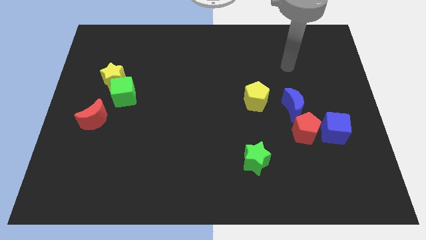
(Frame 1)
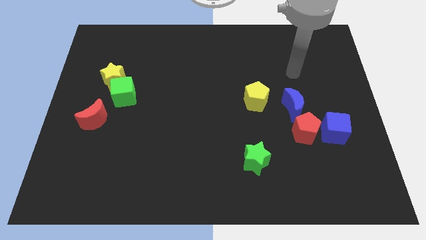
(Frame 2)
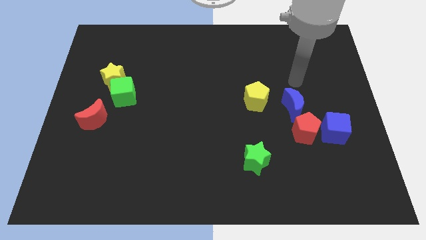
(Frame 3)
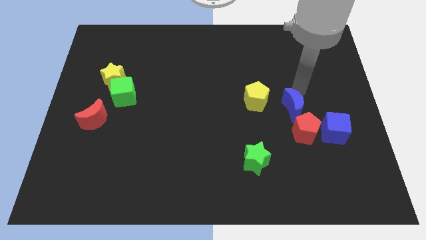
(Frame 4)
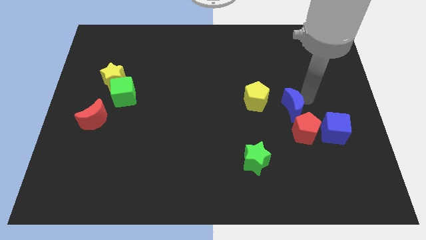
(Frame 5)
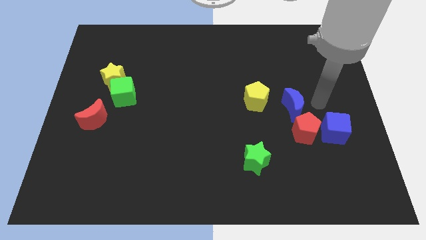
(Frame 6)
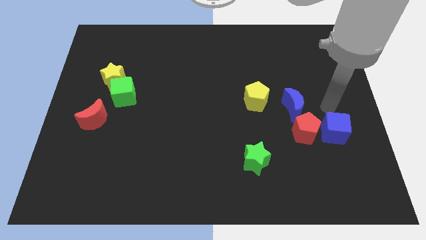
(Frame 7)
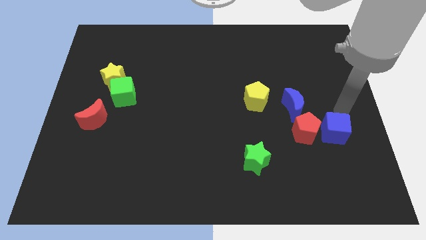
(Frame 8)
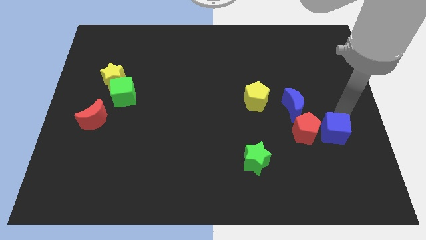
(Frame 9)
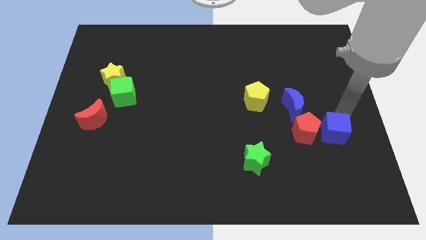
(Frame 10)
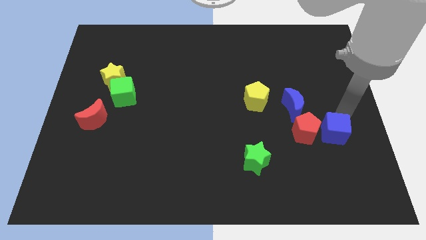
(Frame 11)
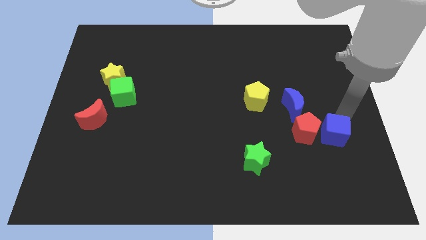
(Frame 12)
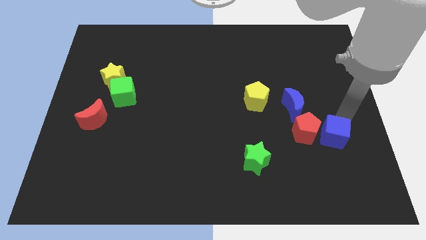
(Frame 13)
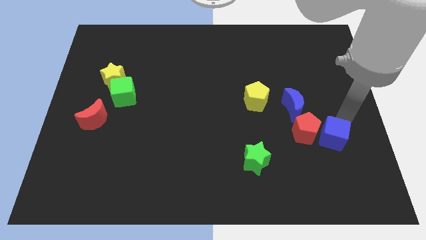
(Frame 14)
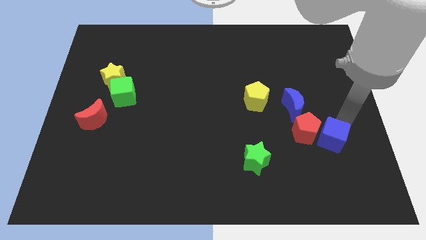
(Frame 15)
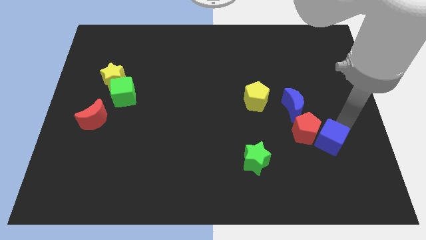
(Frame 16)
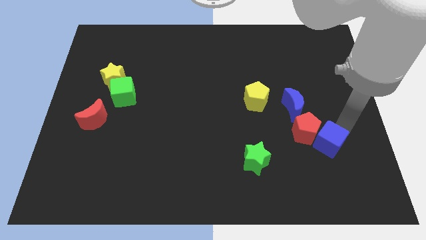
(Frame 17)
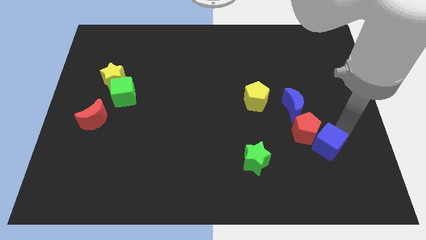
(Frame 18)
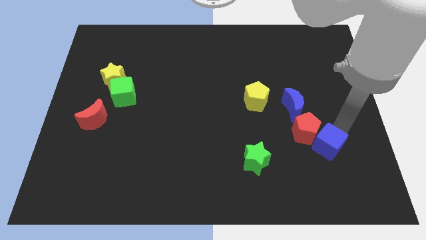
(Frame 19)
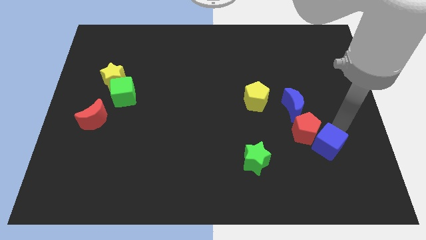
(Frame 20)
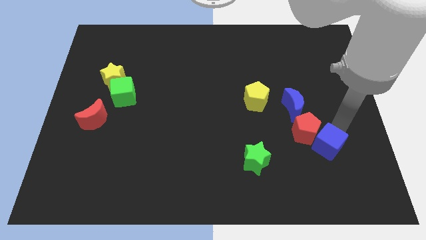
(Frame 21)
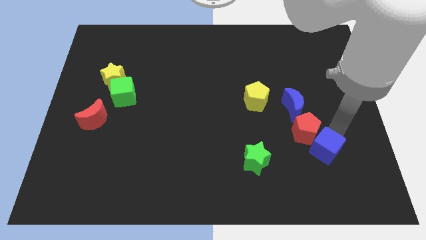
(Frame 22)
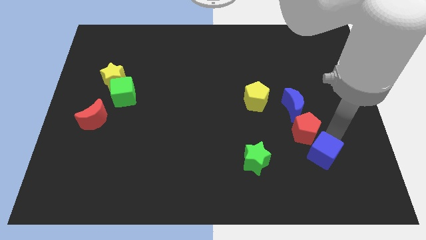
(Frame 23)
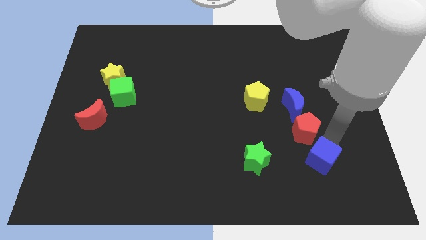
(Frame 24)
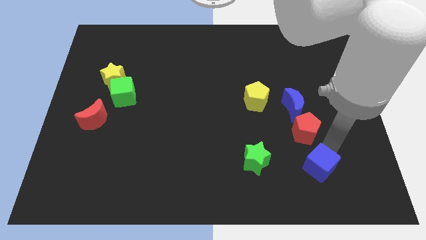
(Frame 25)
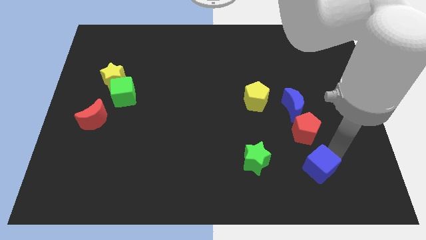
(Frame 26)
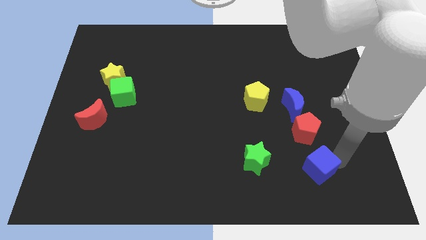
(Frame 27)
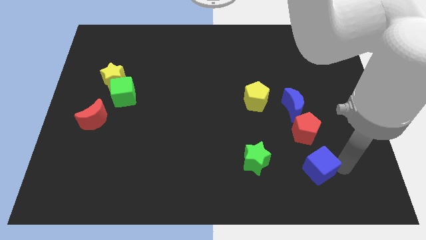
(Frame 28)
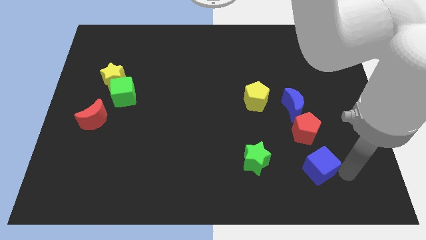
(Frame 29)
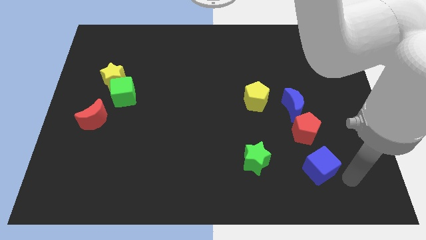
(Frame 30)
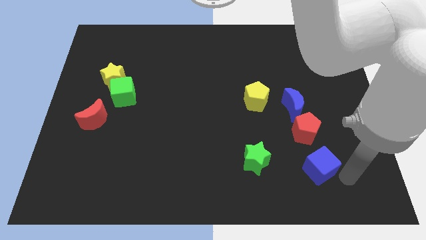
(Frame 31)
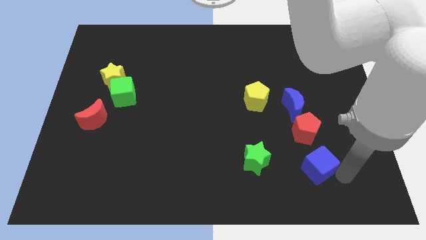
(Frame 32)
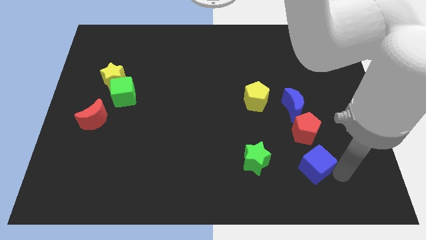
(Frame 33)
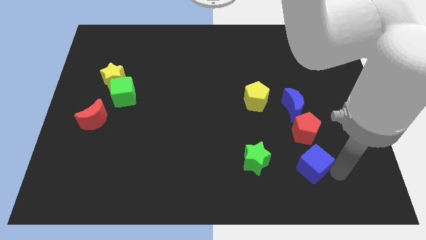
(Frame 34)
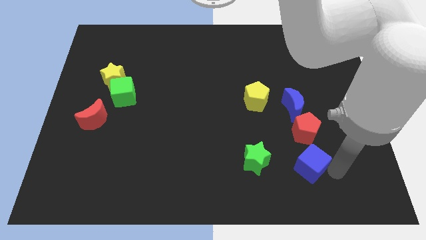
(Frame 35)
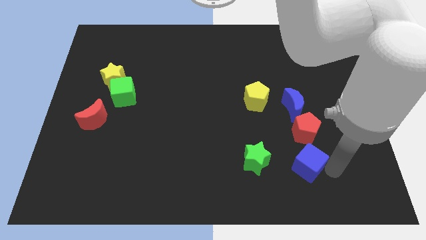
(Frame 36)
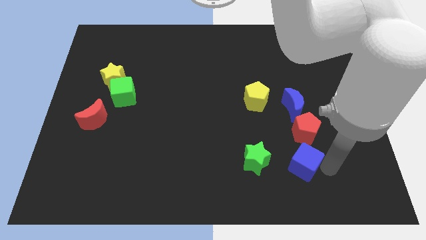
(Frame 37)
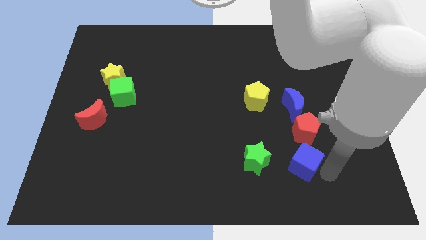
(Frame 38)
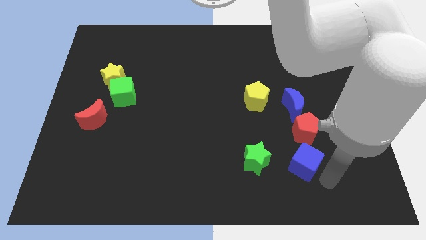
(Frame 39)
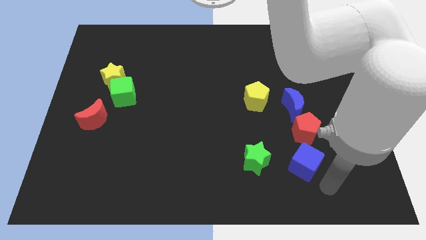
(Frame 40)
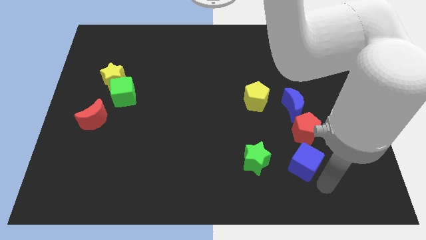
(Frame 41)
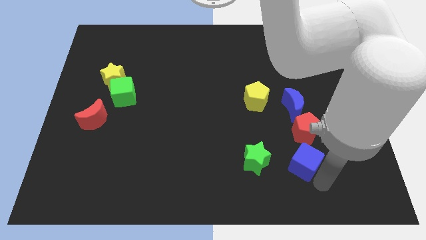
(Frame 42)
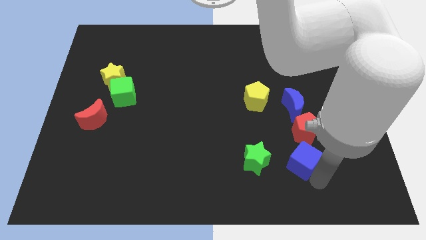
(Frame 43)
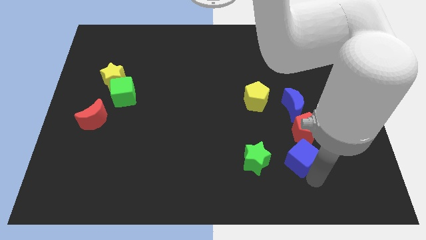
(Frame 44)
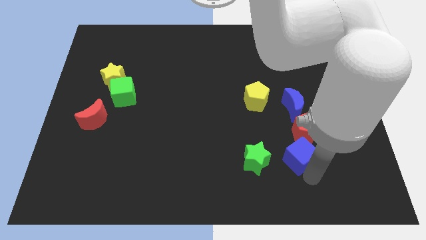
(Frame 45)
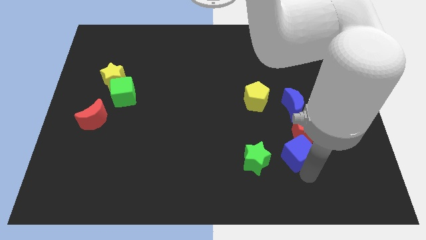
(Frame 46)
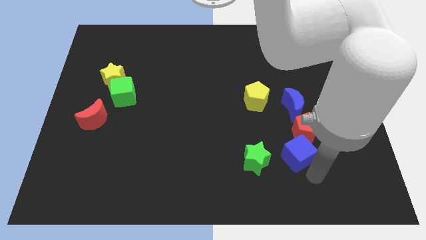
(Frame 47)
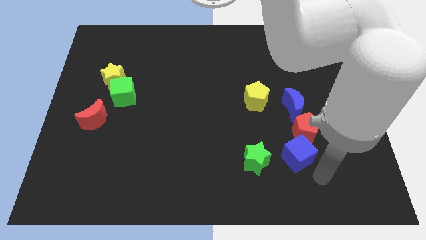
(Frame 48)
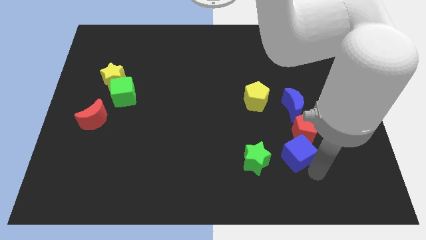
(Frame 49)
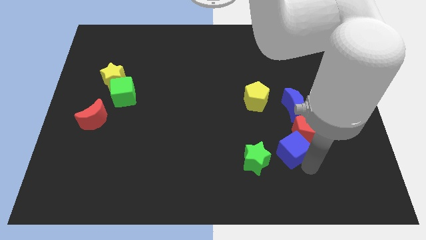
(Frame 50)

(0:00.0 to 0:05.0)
slide the blue cube to the top right side of the green star

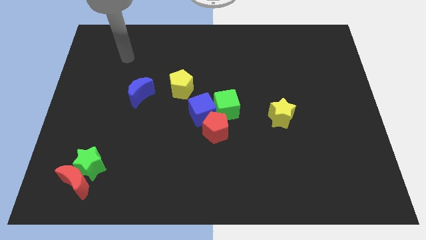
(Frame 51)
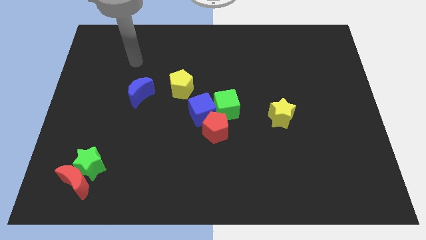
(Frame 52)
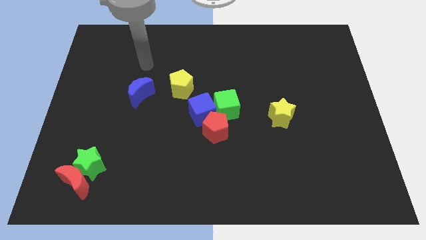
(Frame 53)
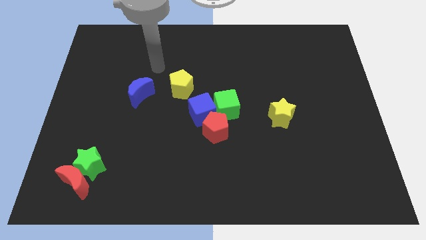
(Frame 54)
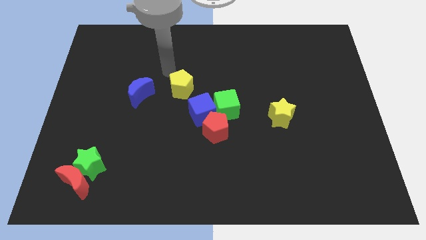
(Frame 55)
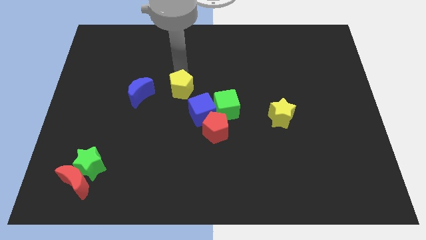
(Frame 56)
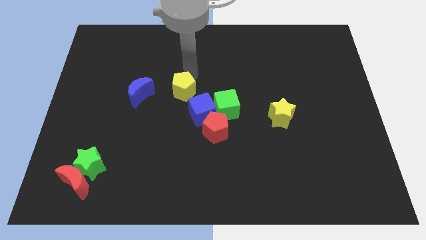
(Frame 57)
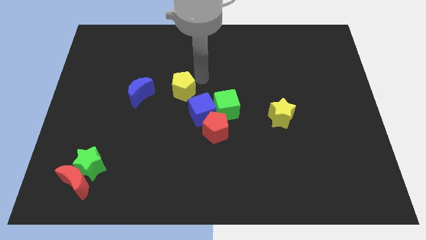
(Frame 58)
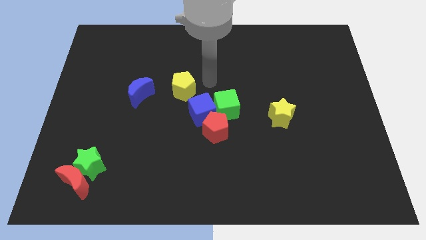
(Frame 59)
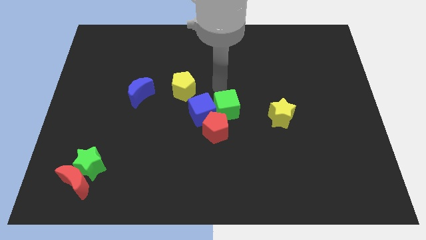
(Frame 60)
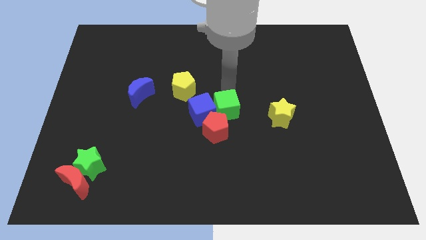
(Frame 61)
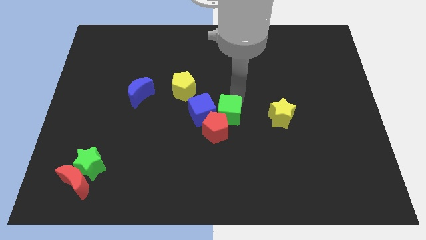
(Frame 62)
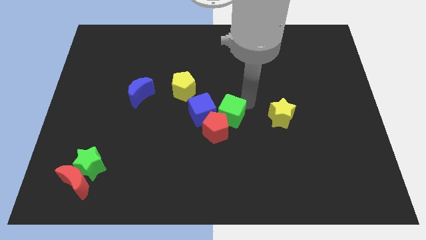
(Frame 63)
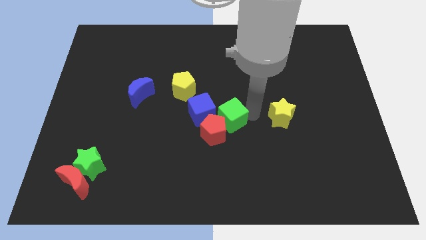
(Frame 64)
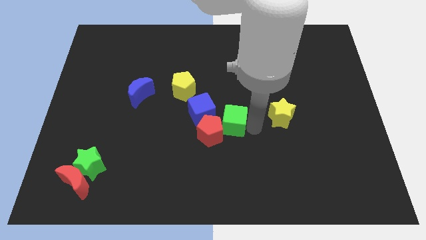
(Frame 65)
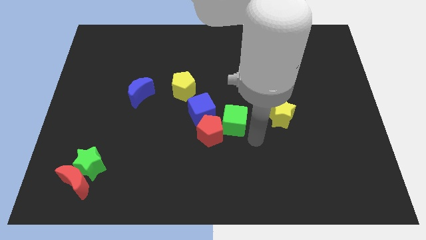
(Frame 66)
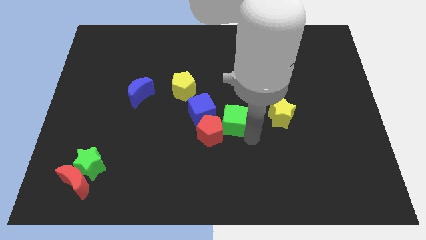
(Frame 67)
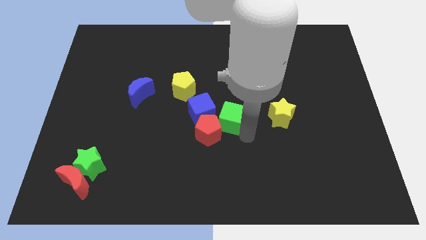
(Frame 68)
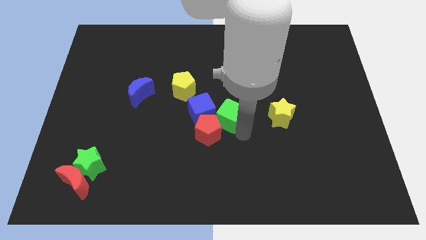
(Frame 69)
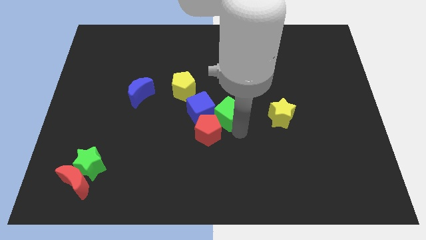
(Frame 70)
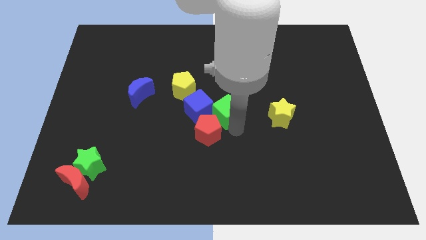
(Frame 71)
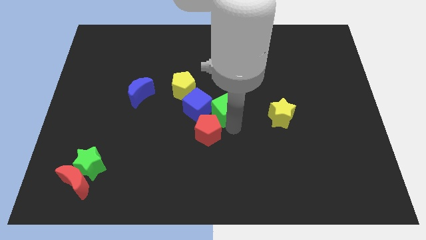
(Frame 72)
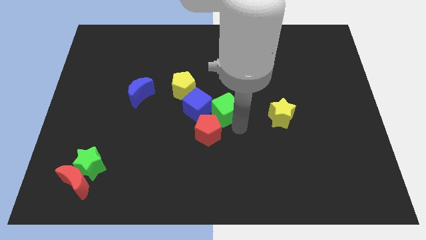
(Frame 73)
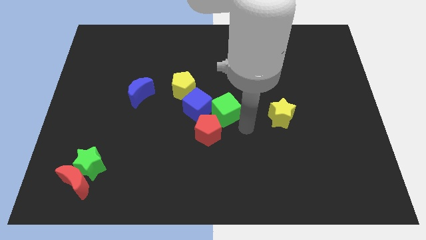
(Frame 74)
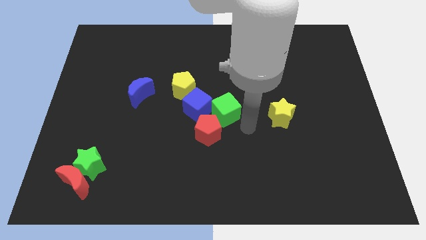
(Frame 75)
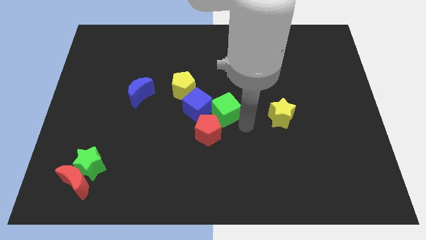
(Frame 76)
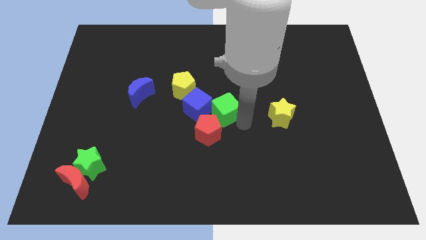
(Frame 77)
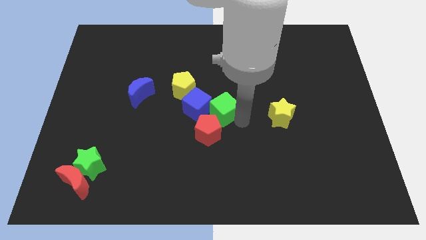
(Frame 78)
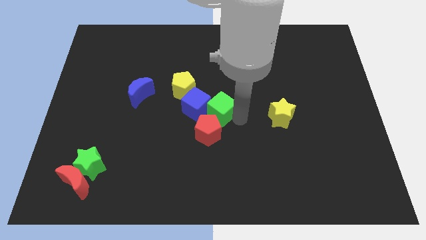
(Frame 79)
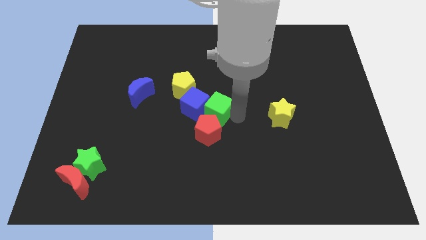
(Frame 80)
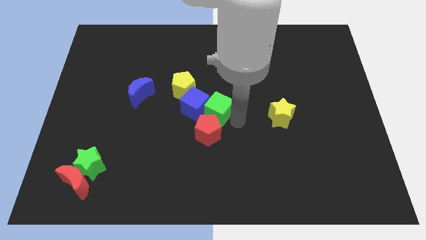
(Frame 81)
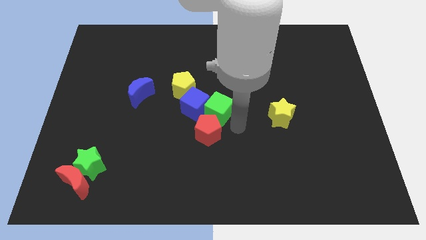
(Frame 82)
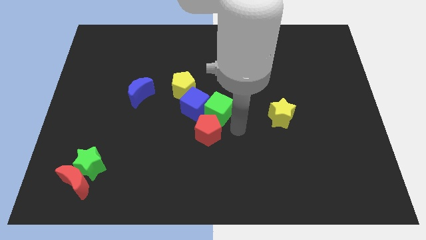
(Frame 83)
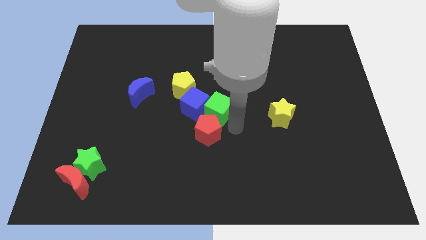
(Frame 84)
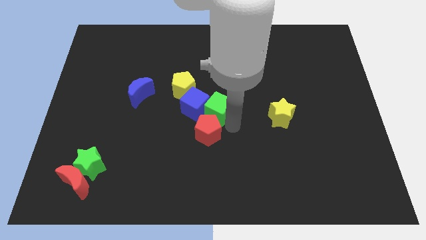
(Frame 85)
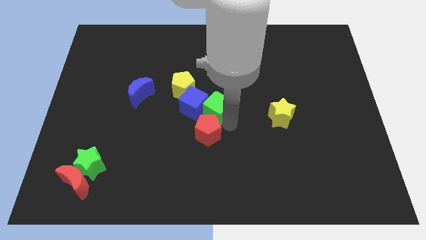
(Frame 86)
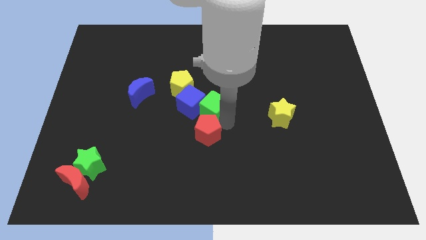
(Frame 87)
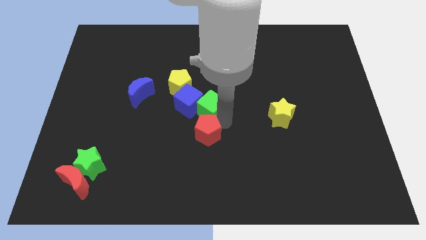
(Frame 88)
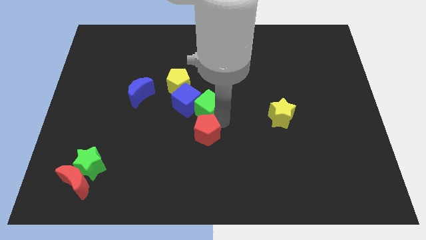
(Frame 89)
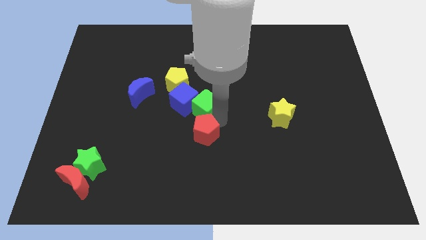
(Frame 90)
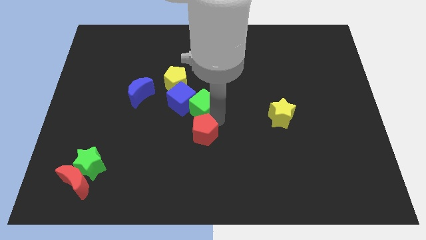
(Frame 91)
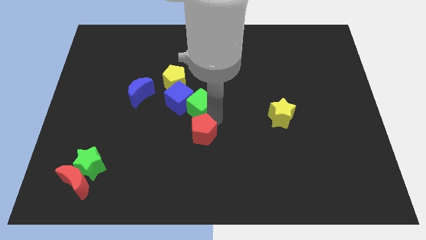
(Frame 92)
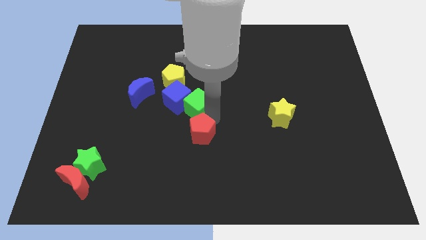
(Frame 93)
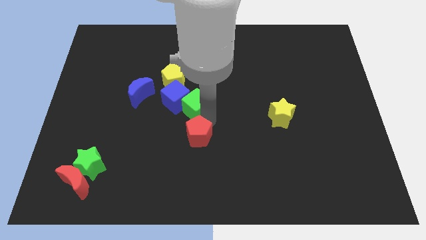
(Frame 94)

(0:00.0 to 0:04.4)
slide the green cube just right of the blue moon
